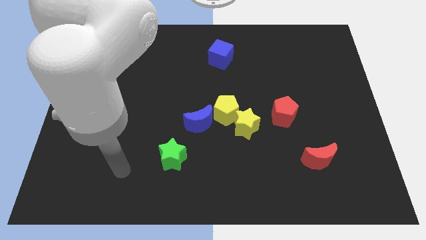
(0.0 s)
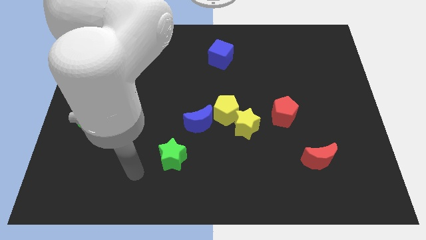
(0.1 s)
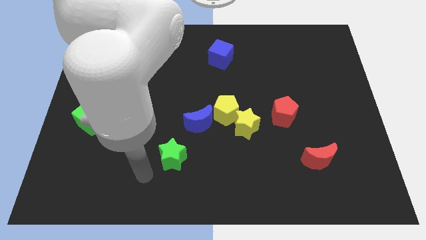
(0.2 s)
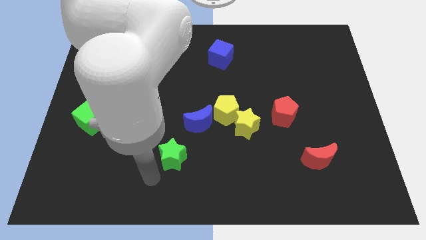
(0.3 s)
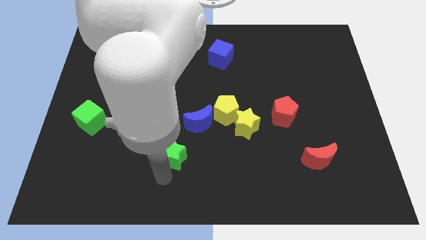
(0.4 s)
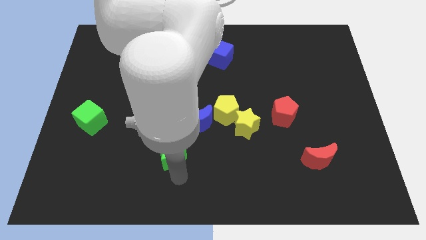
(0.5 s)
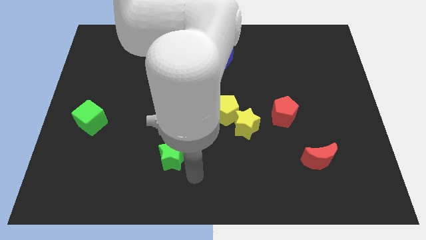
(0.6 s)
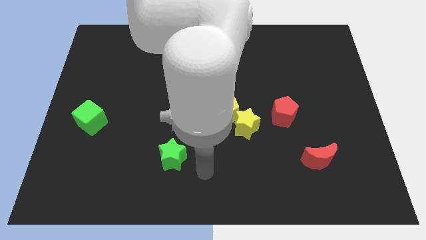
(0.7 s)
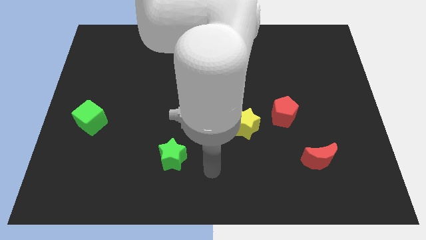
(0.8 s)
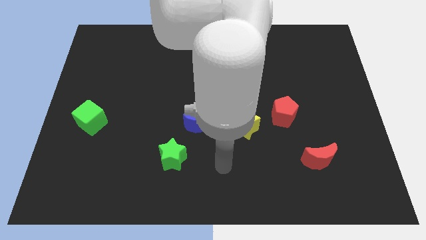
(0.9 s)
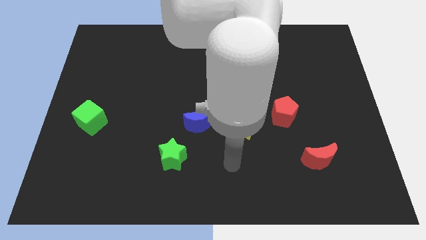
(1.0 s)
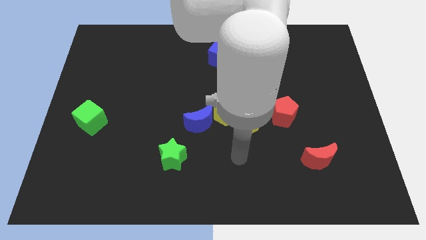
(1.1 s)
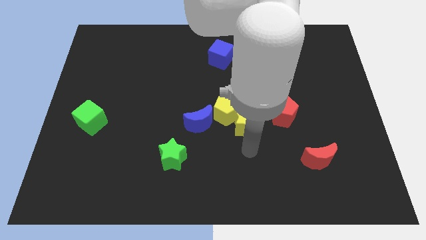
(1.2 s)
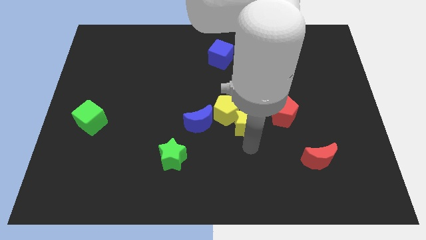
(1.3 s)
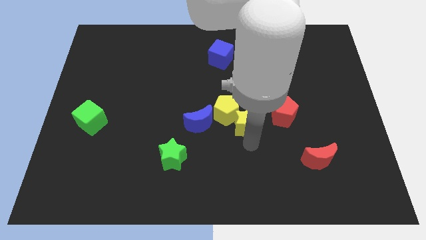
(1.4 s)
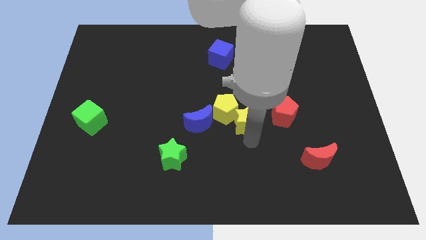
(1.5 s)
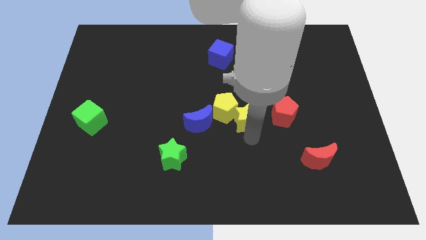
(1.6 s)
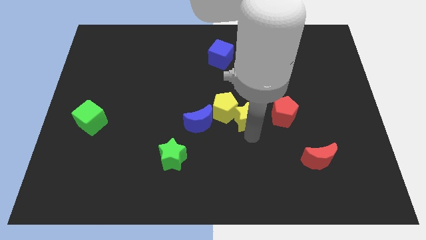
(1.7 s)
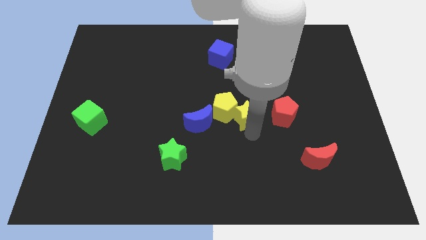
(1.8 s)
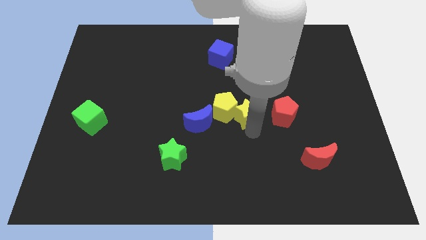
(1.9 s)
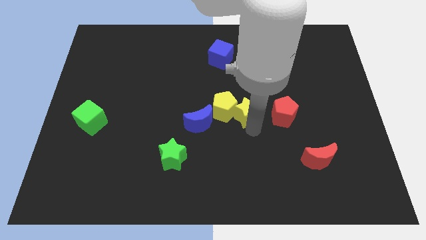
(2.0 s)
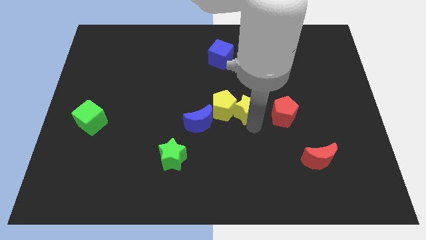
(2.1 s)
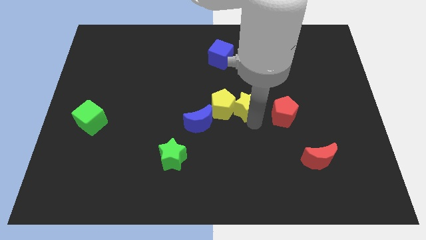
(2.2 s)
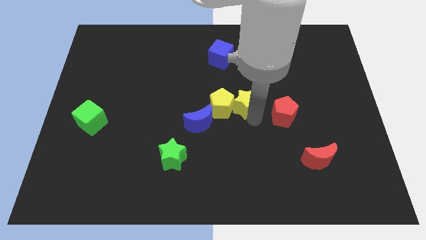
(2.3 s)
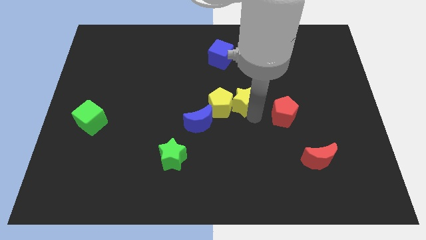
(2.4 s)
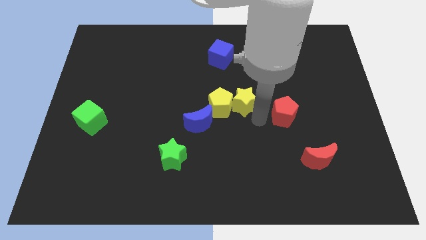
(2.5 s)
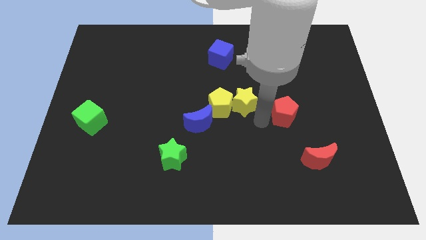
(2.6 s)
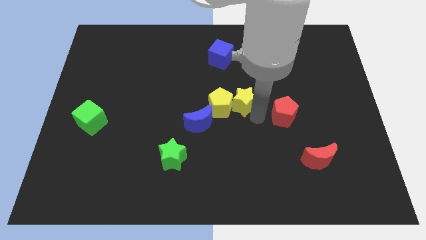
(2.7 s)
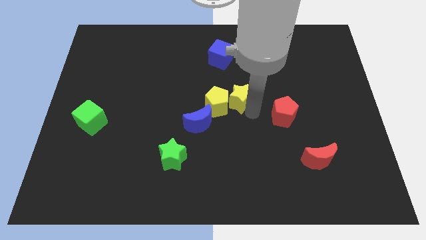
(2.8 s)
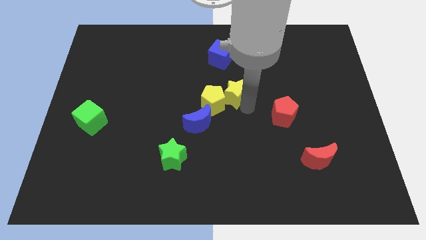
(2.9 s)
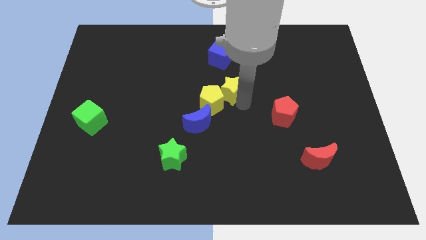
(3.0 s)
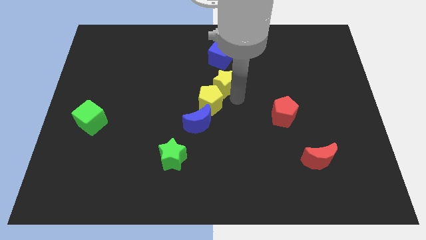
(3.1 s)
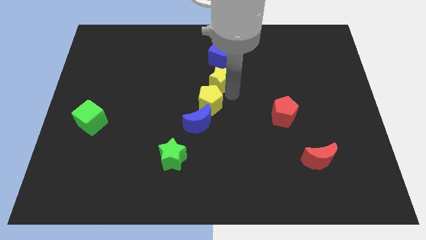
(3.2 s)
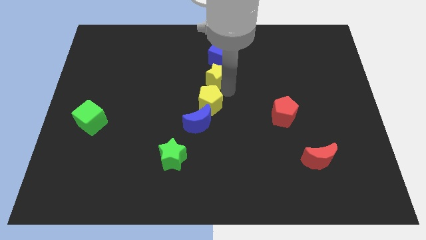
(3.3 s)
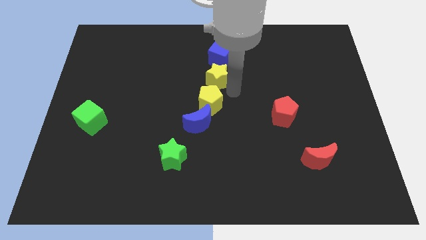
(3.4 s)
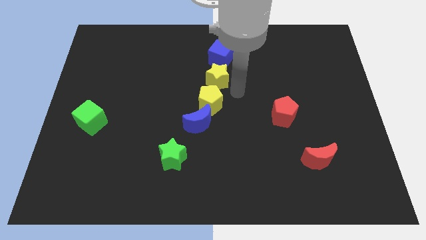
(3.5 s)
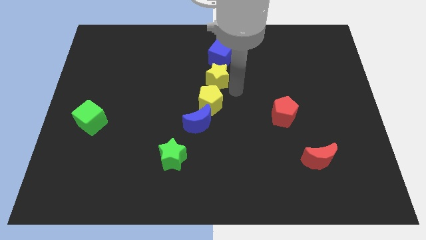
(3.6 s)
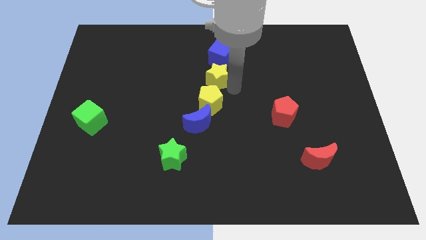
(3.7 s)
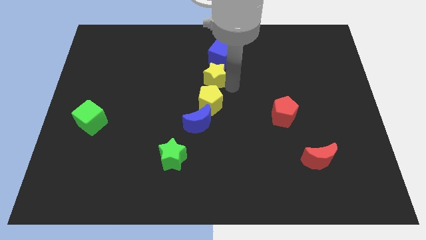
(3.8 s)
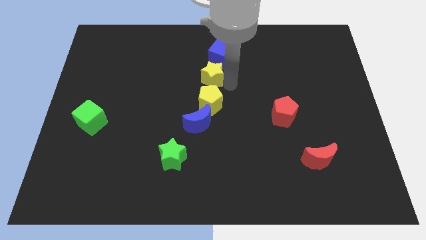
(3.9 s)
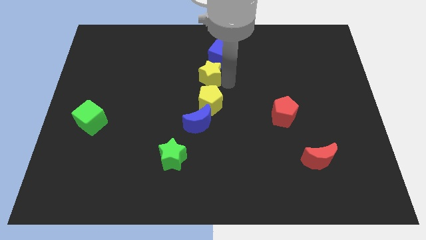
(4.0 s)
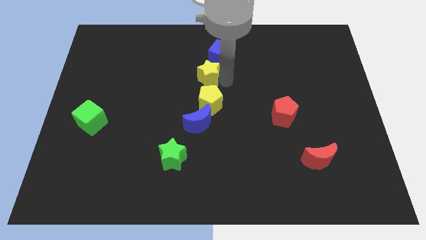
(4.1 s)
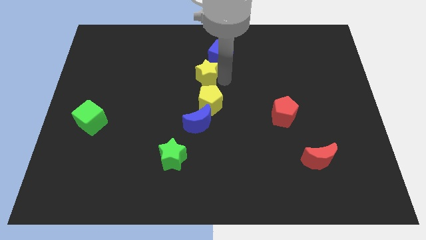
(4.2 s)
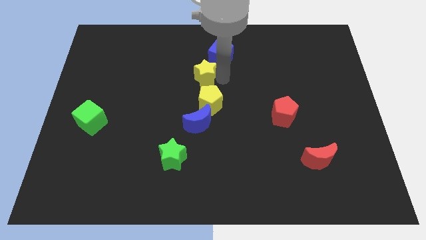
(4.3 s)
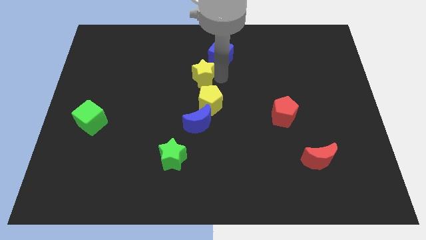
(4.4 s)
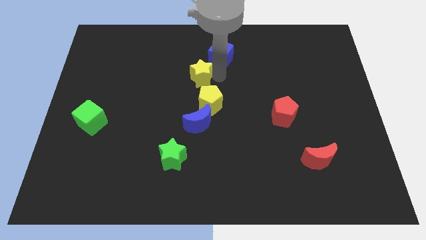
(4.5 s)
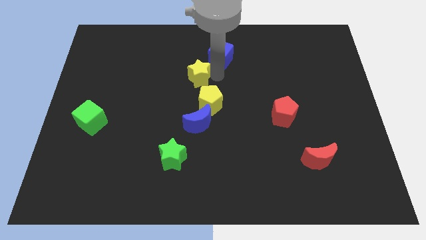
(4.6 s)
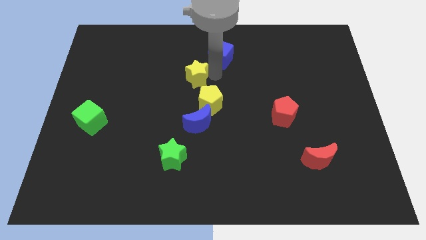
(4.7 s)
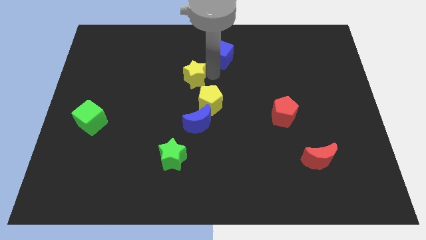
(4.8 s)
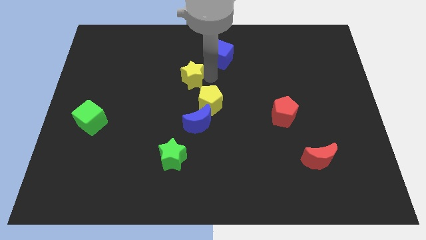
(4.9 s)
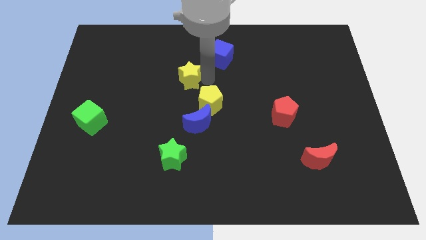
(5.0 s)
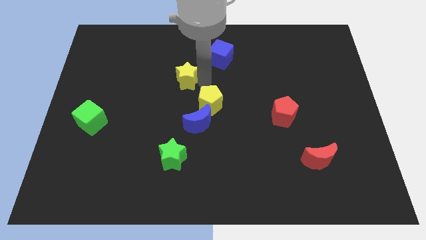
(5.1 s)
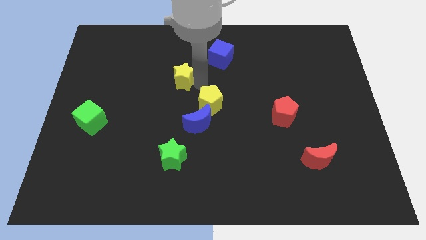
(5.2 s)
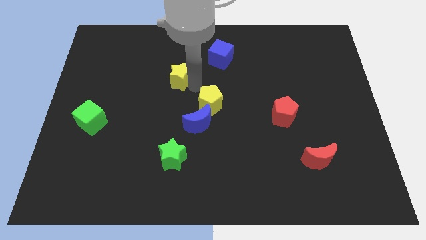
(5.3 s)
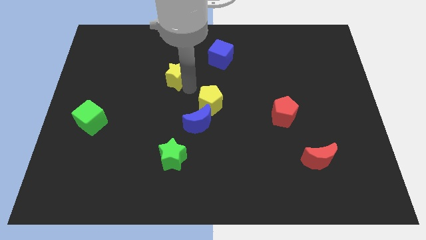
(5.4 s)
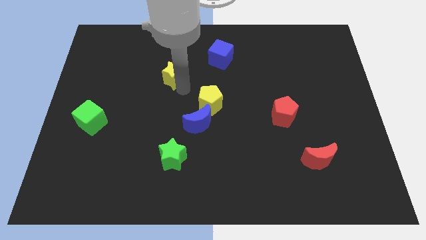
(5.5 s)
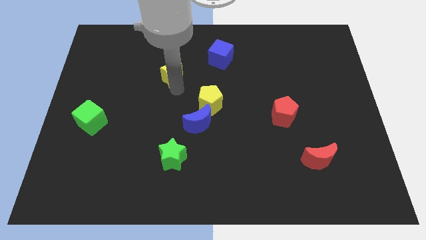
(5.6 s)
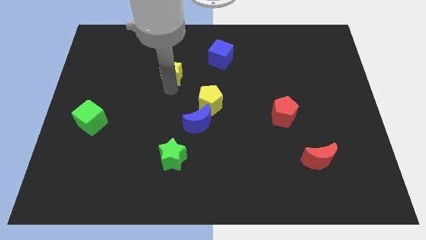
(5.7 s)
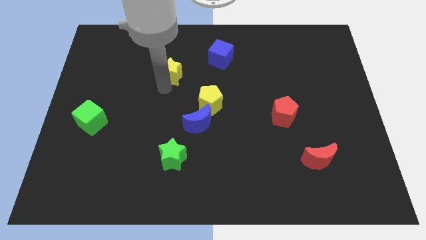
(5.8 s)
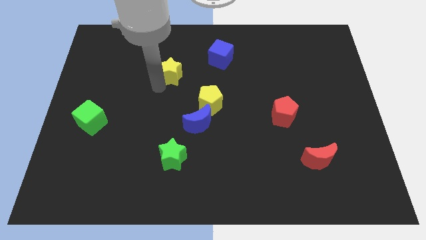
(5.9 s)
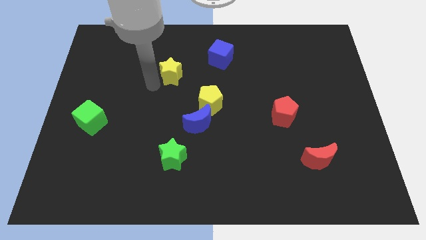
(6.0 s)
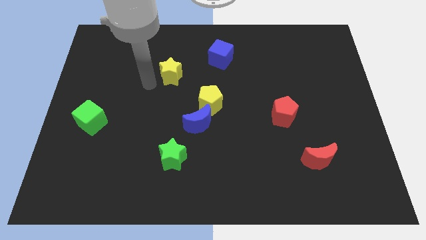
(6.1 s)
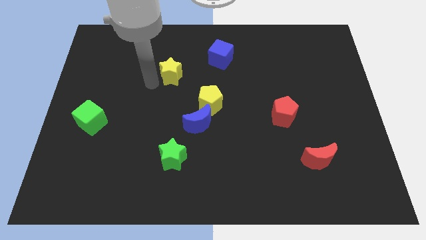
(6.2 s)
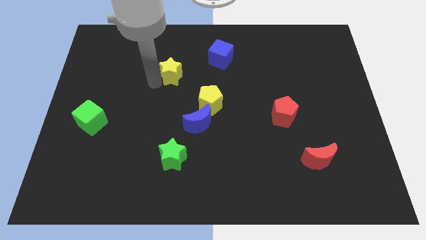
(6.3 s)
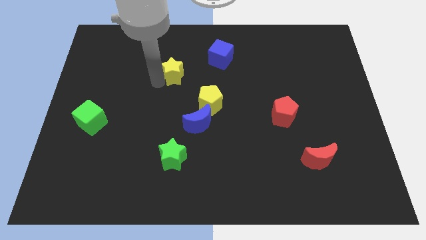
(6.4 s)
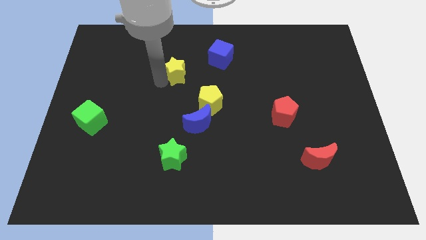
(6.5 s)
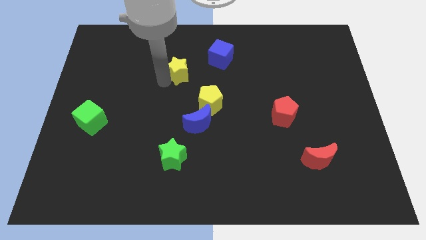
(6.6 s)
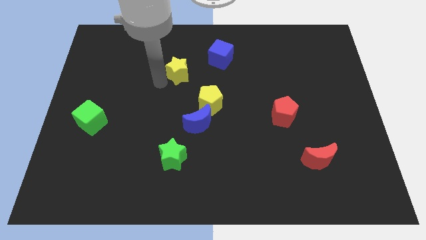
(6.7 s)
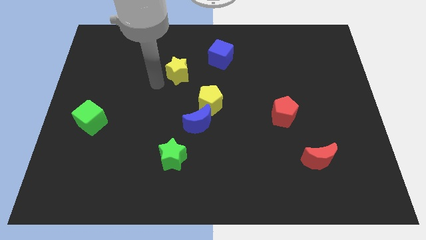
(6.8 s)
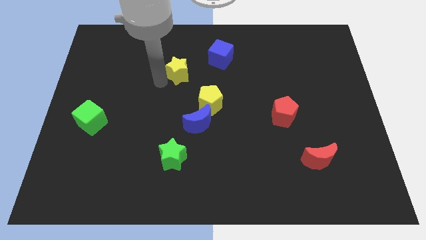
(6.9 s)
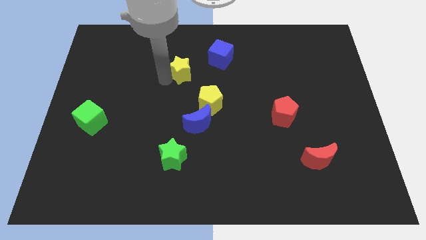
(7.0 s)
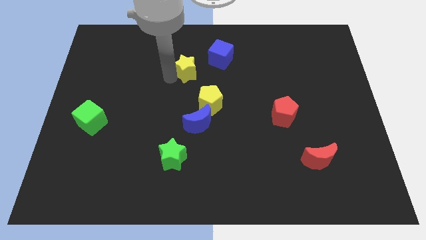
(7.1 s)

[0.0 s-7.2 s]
put the yellow star just left of the blue cube
